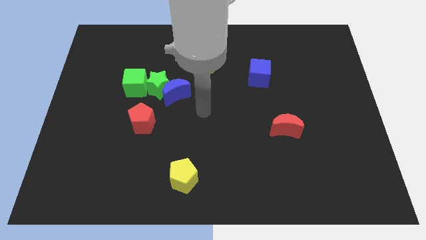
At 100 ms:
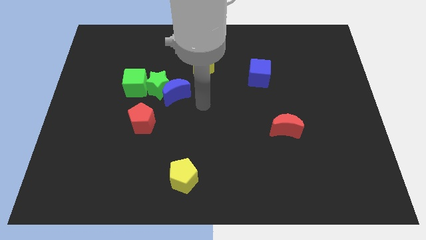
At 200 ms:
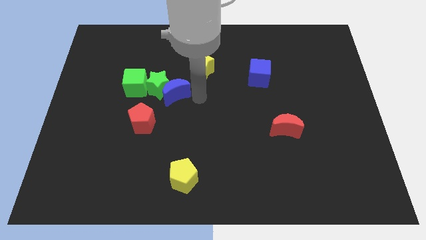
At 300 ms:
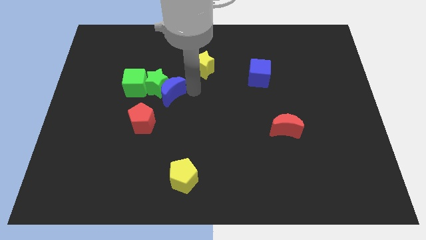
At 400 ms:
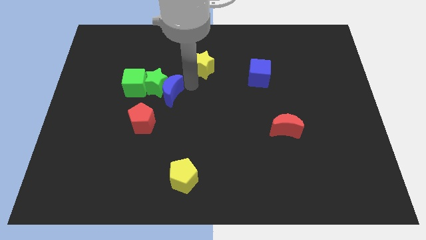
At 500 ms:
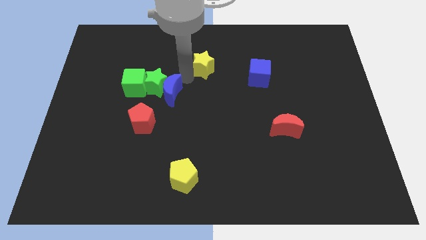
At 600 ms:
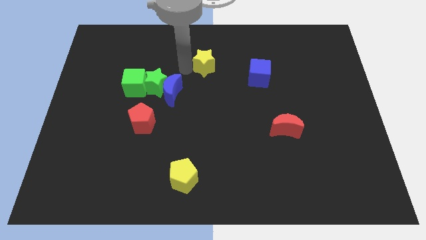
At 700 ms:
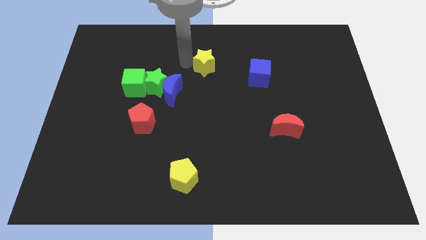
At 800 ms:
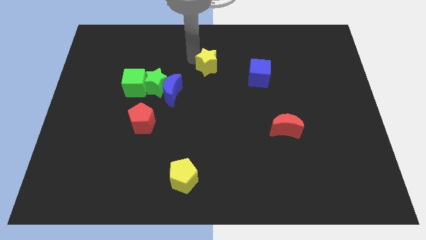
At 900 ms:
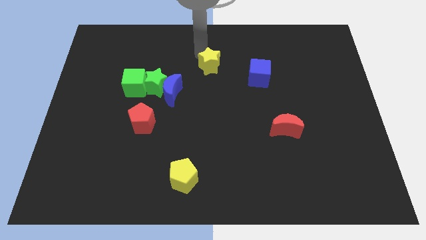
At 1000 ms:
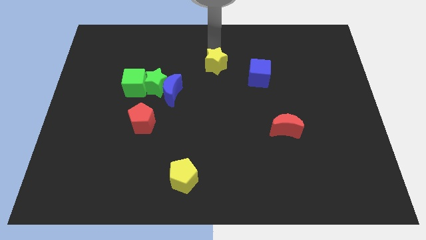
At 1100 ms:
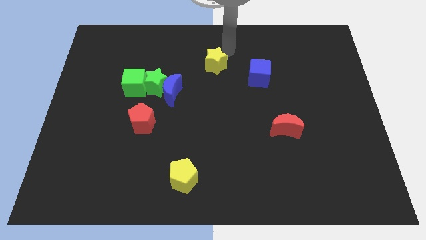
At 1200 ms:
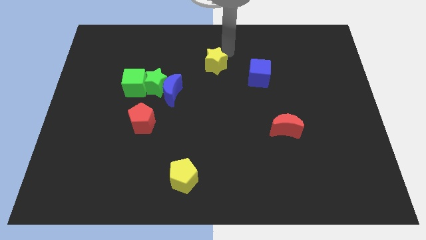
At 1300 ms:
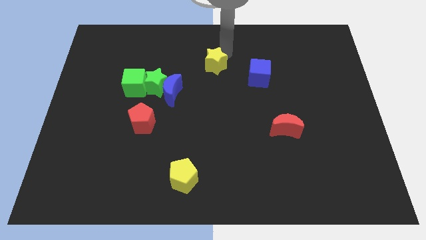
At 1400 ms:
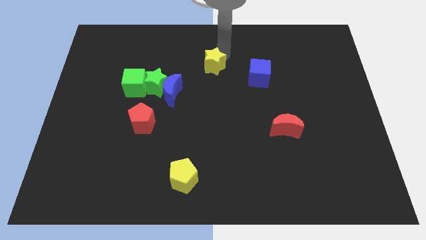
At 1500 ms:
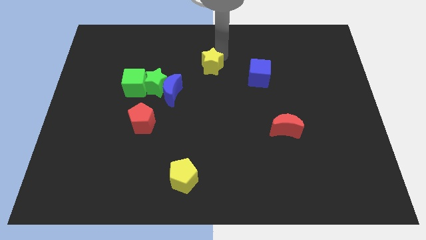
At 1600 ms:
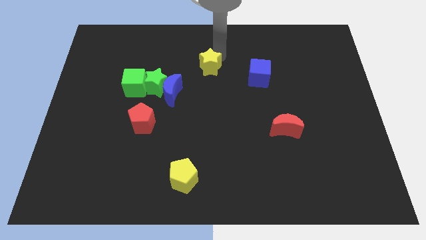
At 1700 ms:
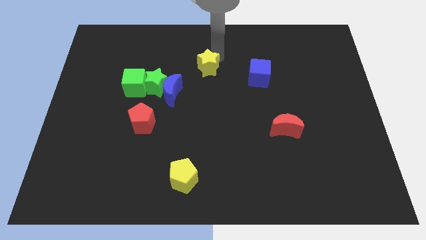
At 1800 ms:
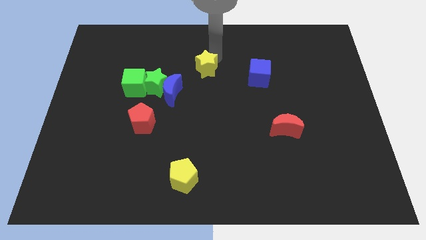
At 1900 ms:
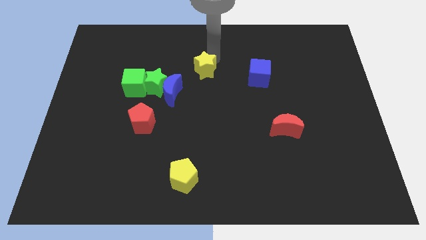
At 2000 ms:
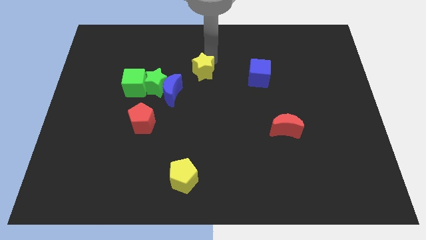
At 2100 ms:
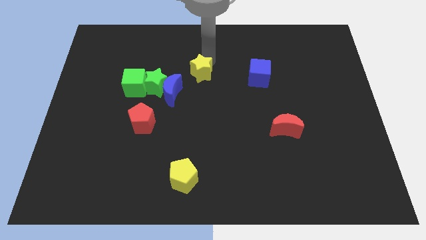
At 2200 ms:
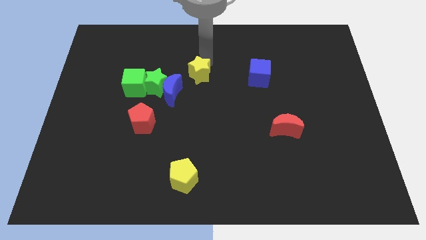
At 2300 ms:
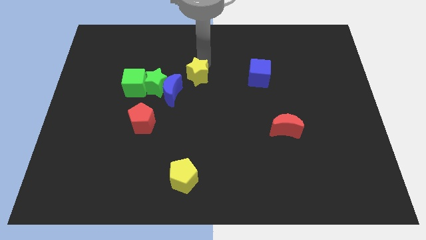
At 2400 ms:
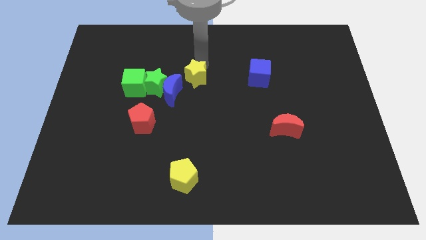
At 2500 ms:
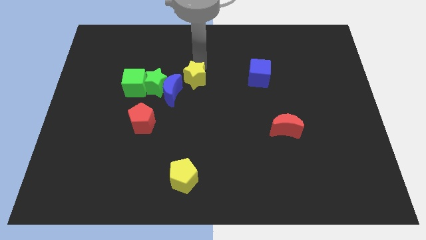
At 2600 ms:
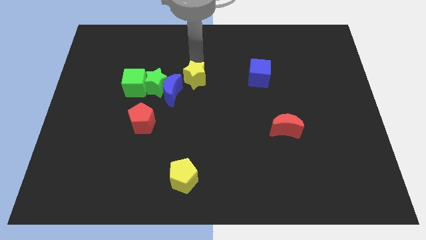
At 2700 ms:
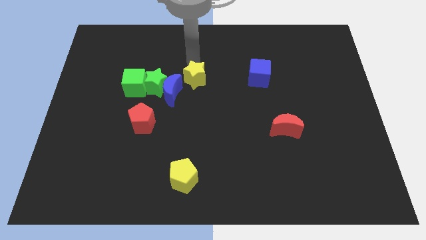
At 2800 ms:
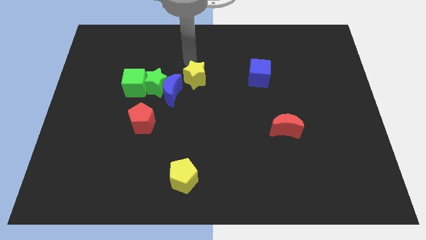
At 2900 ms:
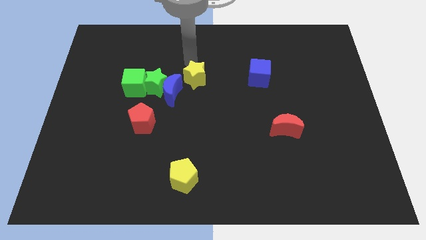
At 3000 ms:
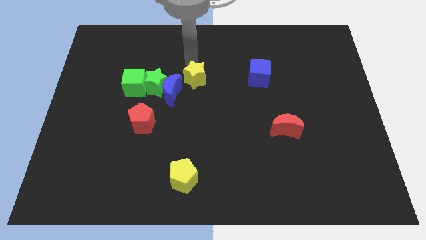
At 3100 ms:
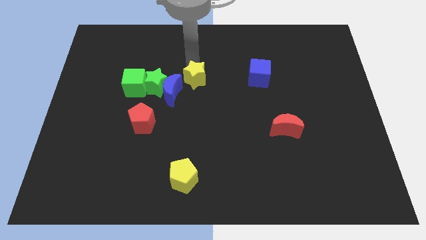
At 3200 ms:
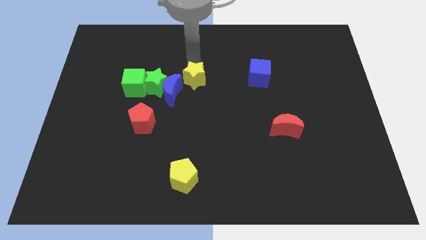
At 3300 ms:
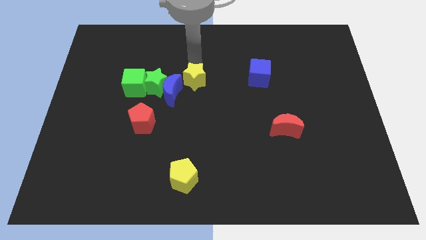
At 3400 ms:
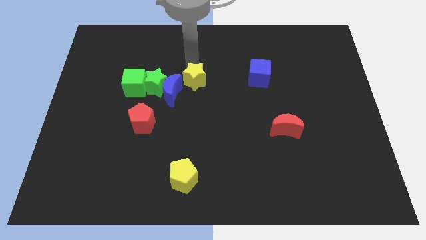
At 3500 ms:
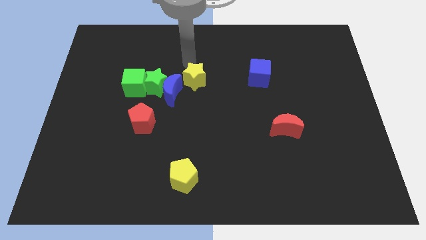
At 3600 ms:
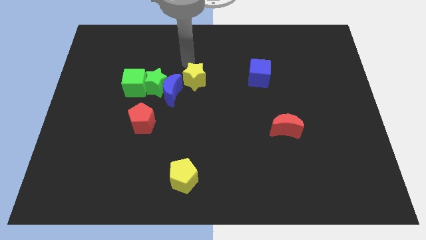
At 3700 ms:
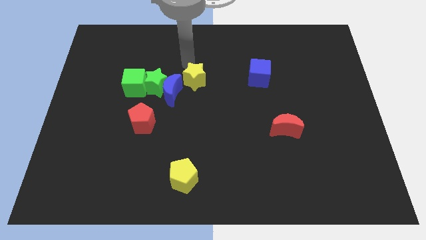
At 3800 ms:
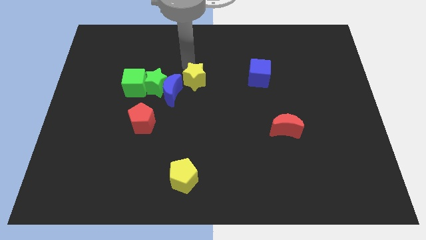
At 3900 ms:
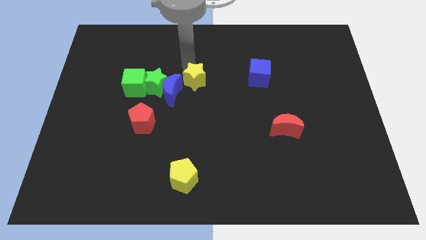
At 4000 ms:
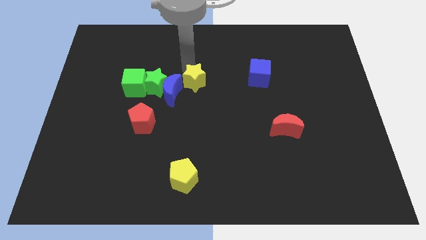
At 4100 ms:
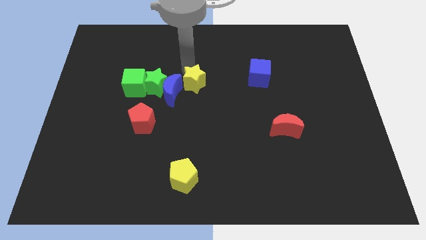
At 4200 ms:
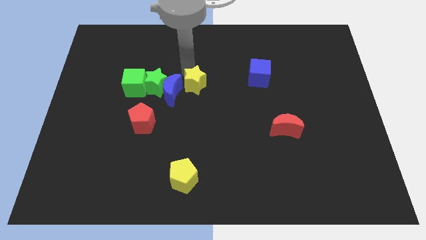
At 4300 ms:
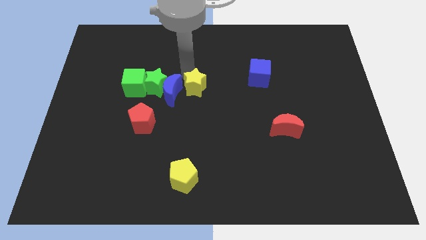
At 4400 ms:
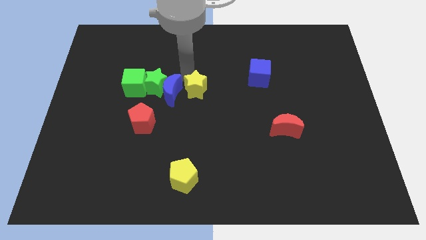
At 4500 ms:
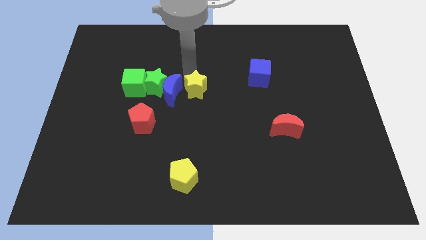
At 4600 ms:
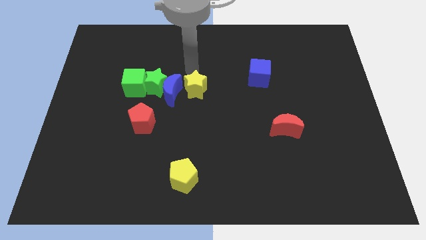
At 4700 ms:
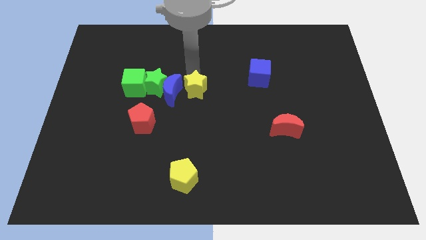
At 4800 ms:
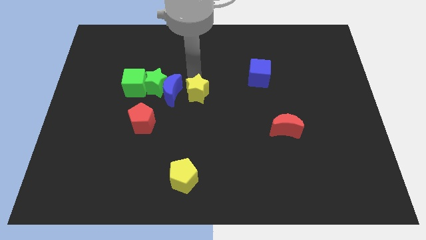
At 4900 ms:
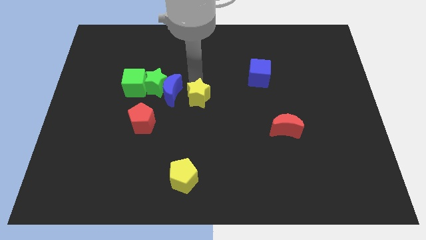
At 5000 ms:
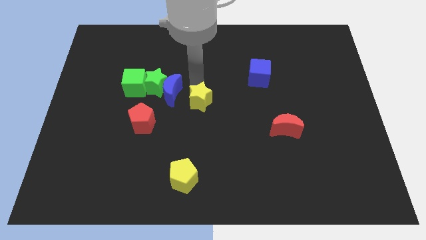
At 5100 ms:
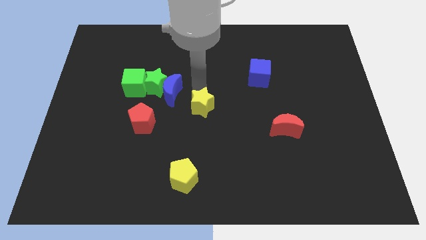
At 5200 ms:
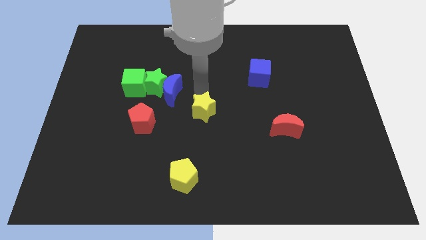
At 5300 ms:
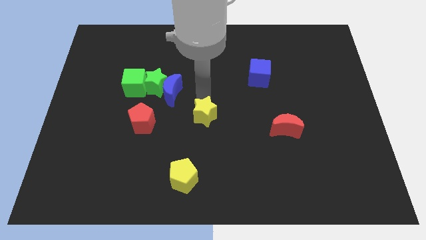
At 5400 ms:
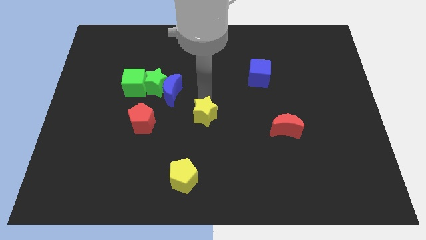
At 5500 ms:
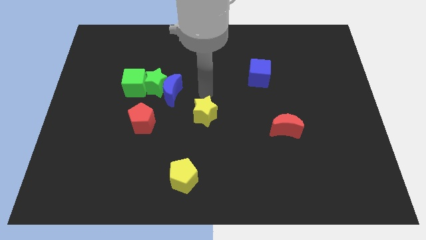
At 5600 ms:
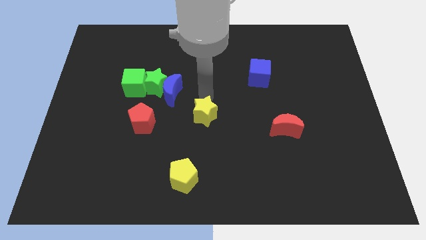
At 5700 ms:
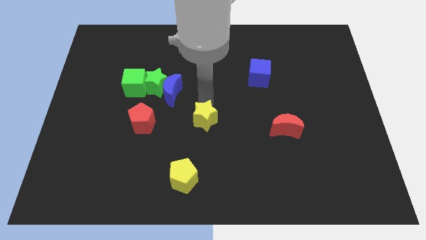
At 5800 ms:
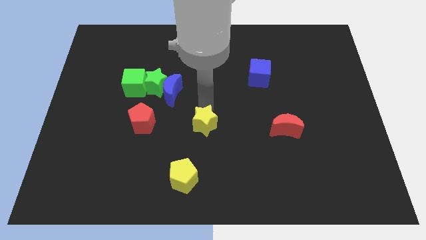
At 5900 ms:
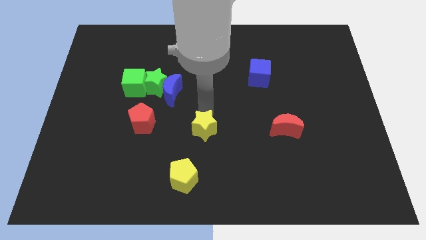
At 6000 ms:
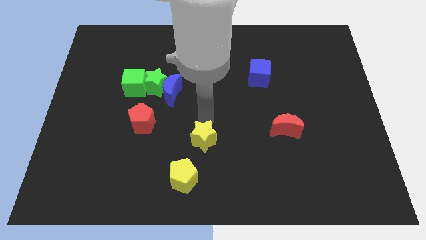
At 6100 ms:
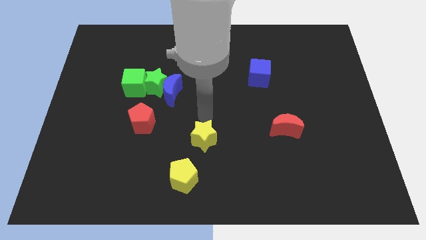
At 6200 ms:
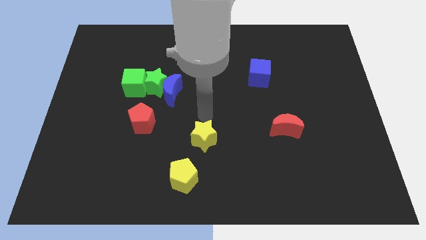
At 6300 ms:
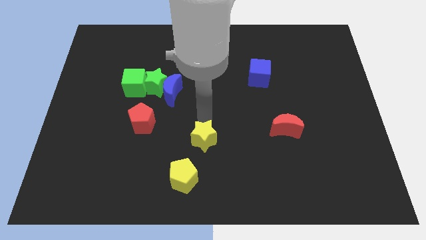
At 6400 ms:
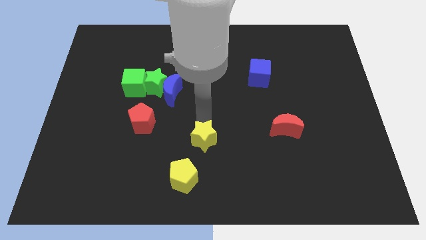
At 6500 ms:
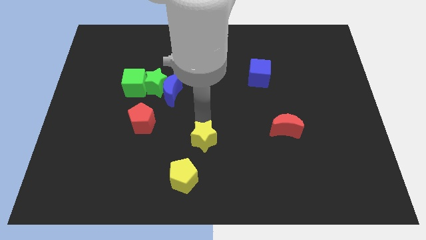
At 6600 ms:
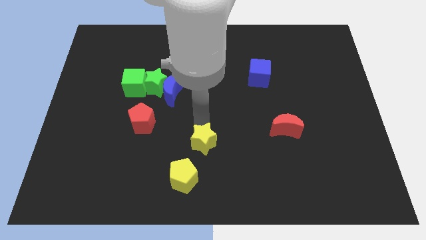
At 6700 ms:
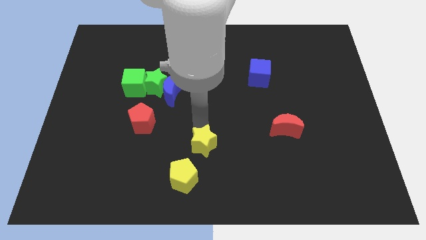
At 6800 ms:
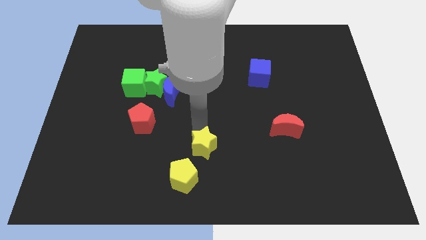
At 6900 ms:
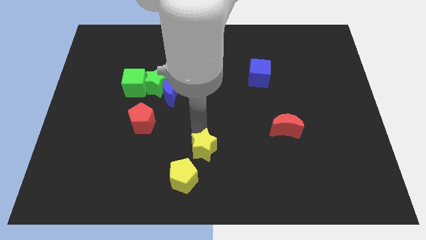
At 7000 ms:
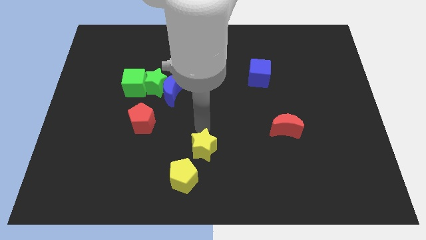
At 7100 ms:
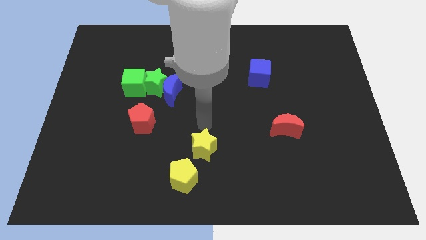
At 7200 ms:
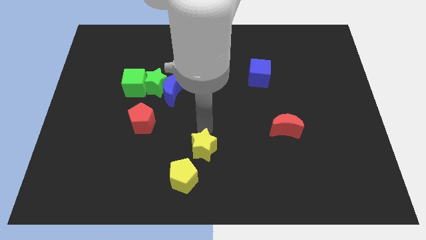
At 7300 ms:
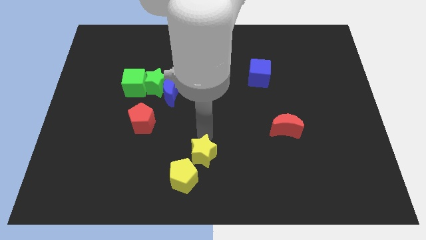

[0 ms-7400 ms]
slide the yellow star to the bottom side

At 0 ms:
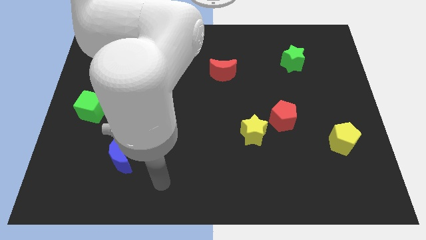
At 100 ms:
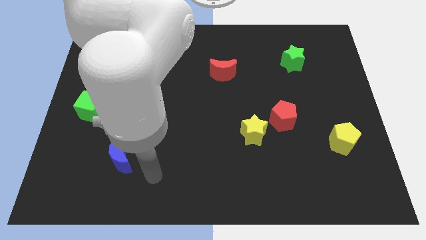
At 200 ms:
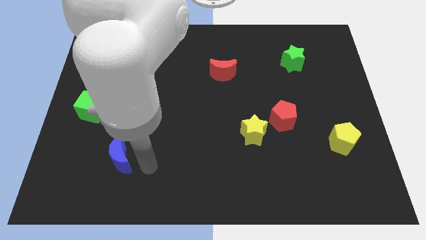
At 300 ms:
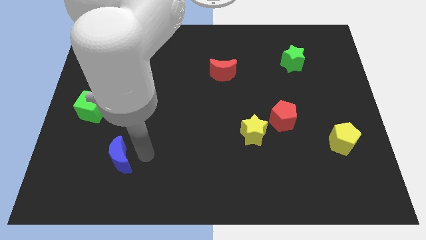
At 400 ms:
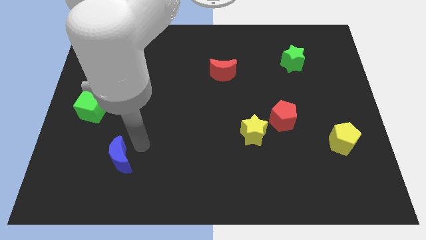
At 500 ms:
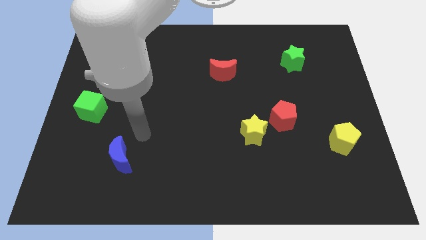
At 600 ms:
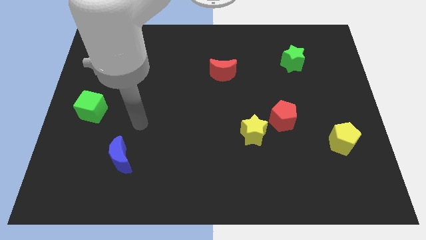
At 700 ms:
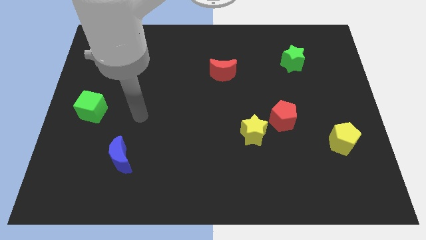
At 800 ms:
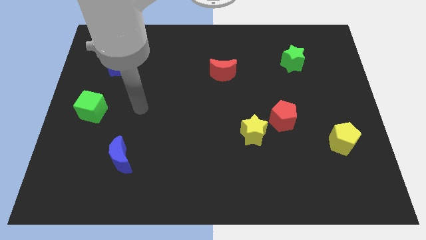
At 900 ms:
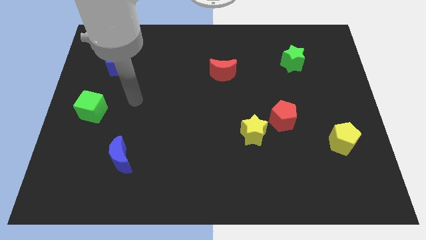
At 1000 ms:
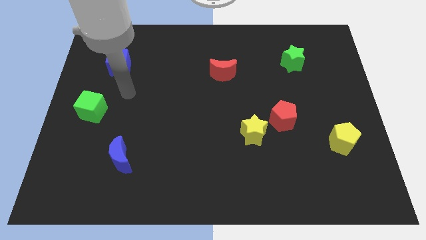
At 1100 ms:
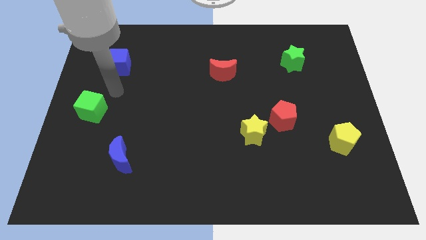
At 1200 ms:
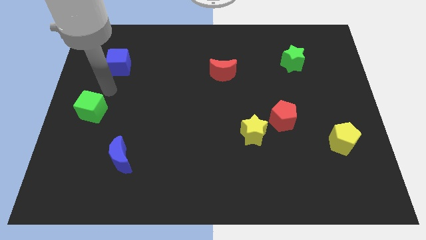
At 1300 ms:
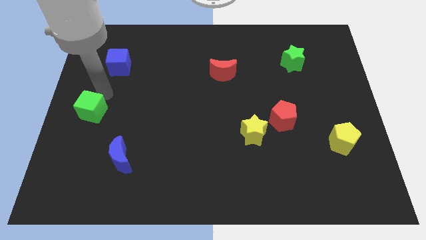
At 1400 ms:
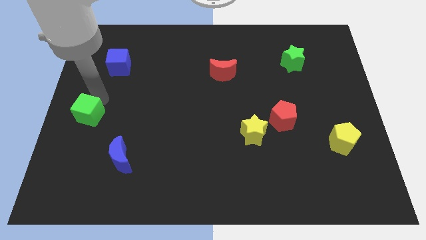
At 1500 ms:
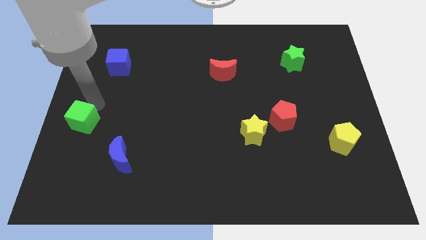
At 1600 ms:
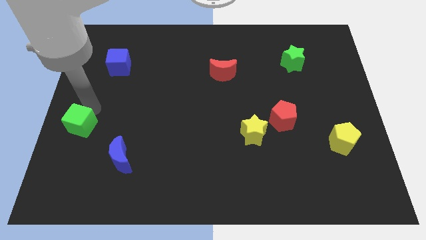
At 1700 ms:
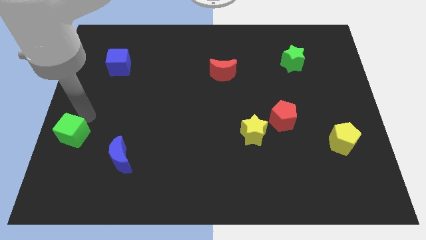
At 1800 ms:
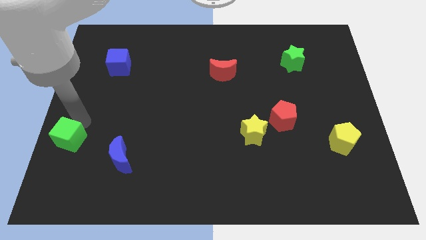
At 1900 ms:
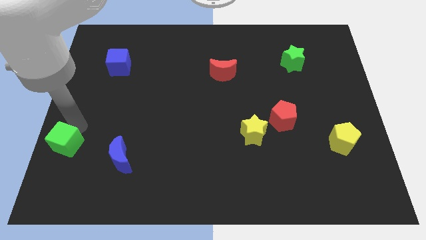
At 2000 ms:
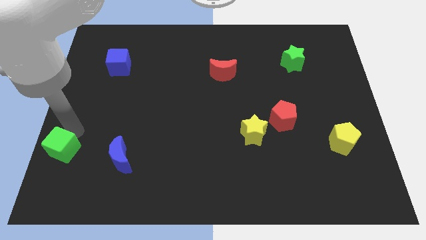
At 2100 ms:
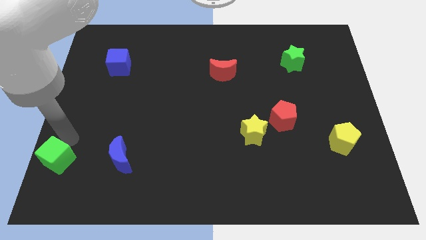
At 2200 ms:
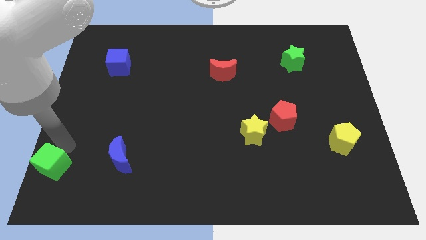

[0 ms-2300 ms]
slide the green cube to the bottom left corner
